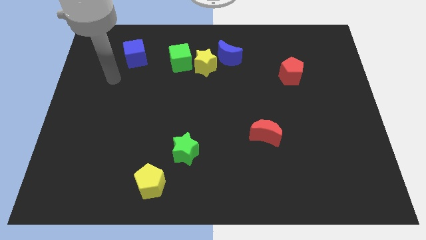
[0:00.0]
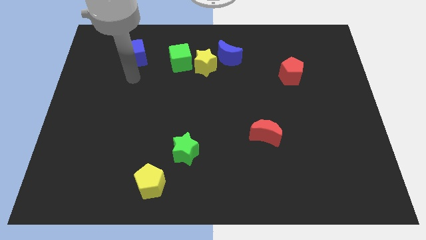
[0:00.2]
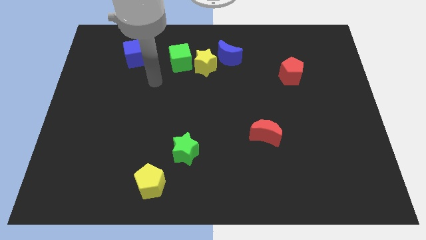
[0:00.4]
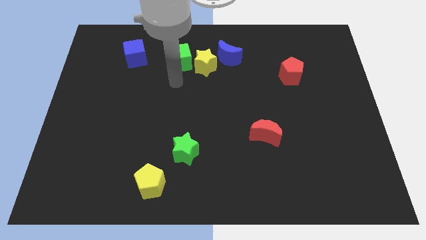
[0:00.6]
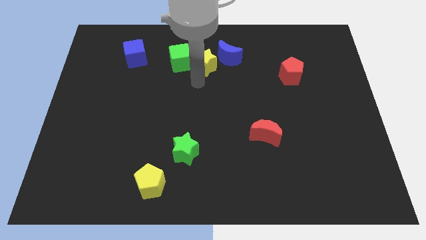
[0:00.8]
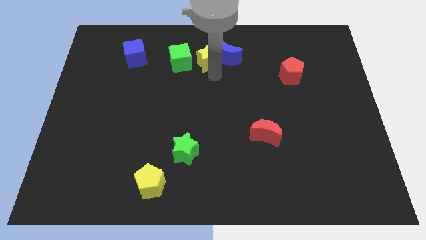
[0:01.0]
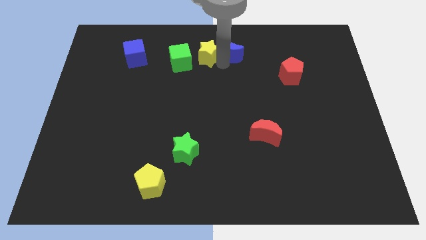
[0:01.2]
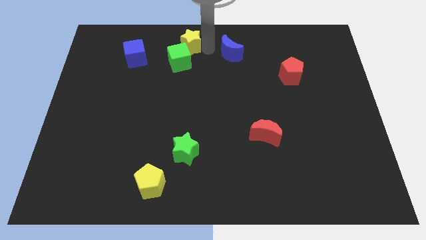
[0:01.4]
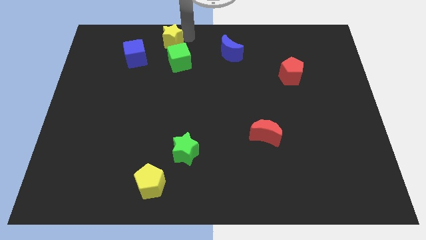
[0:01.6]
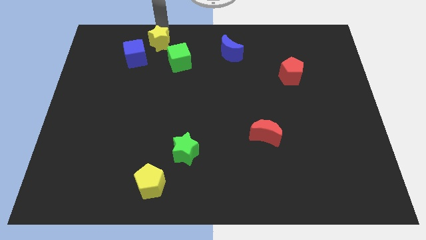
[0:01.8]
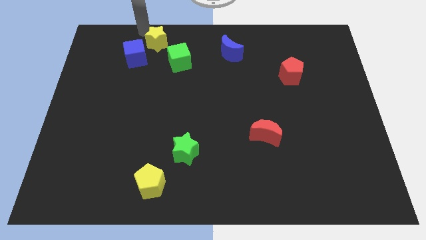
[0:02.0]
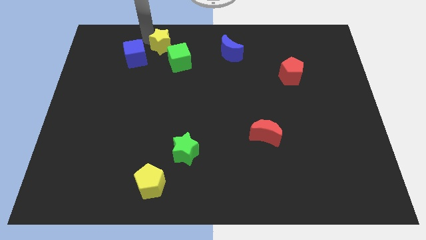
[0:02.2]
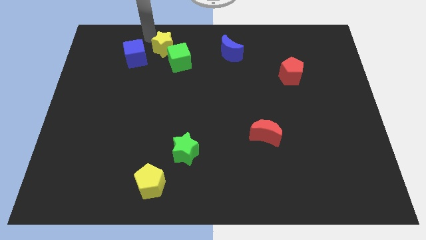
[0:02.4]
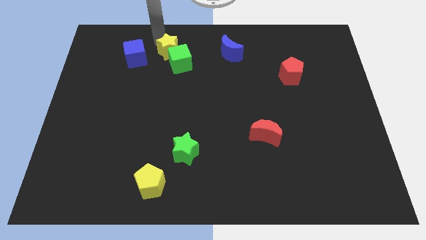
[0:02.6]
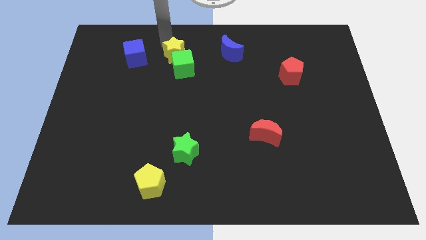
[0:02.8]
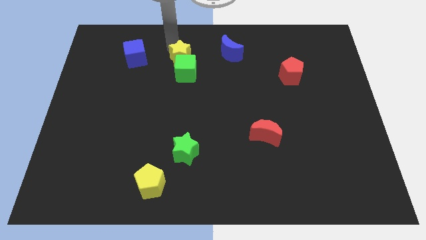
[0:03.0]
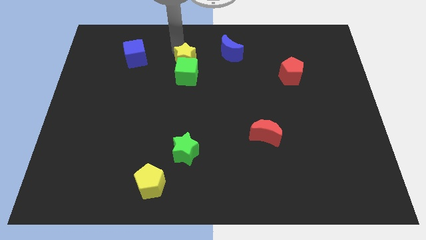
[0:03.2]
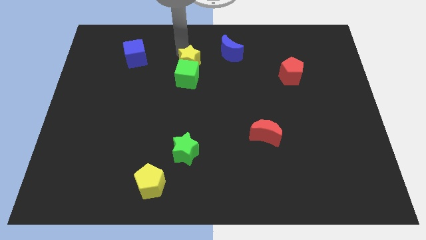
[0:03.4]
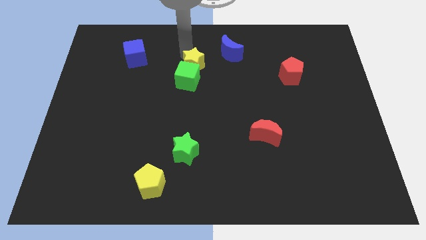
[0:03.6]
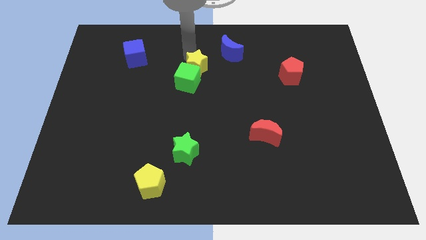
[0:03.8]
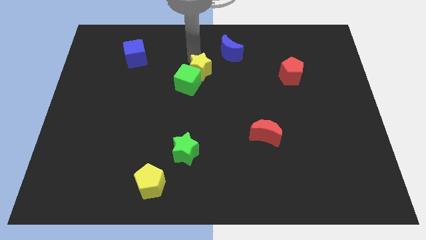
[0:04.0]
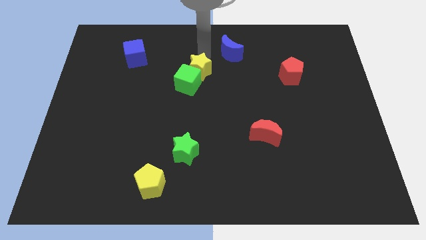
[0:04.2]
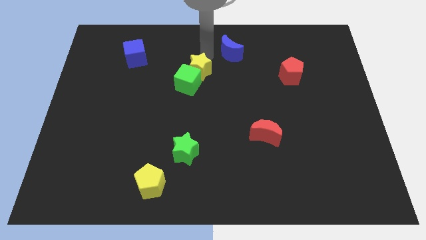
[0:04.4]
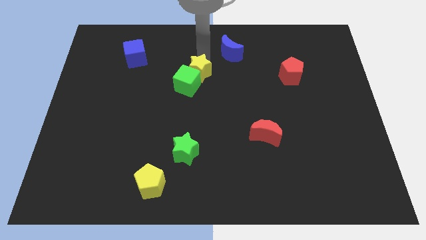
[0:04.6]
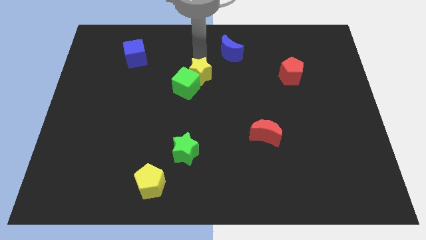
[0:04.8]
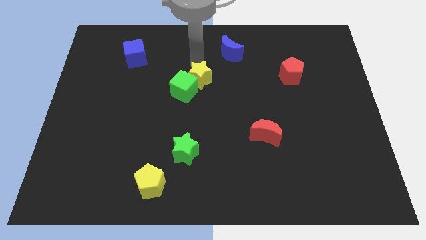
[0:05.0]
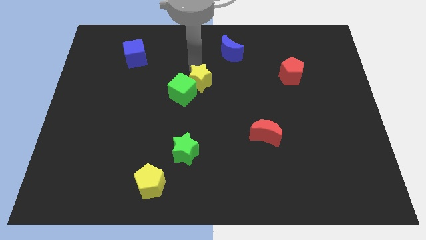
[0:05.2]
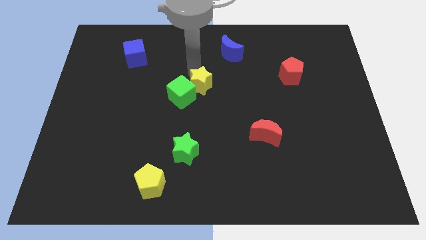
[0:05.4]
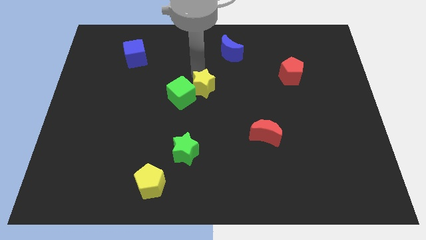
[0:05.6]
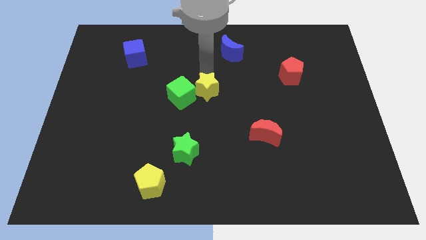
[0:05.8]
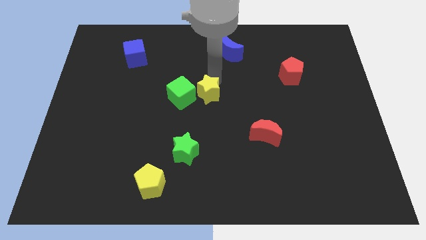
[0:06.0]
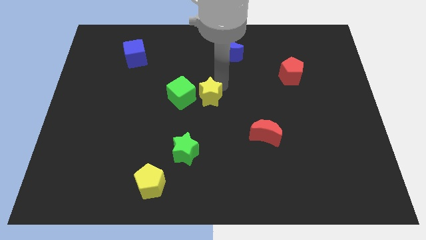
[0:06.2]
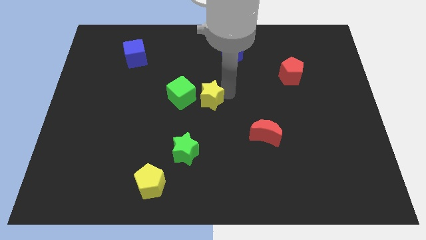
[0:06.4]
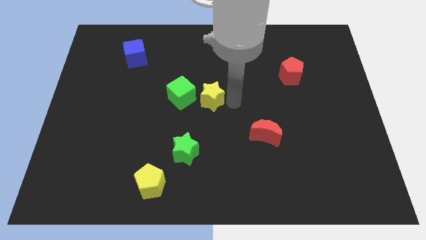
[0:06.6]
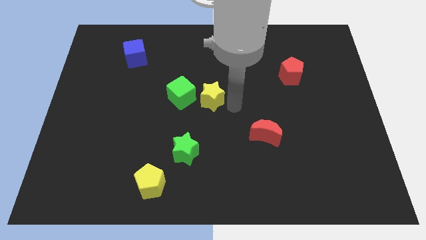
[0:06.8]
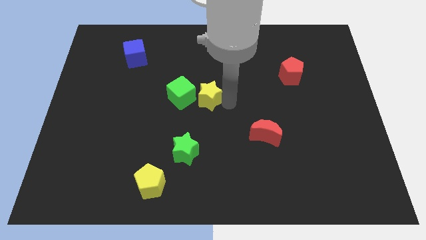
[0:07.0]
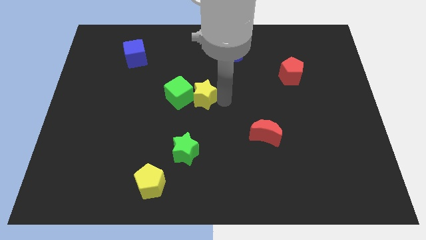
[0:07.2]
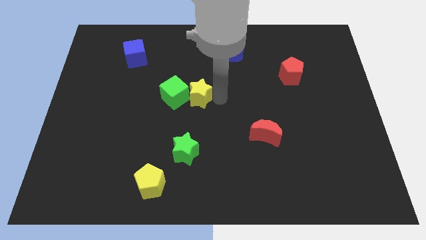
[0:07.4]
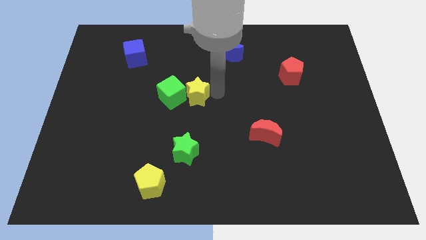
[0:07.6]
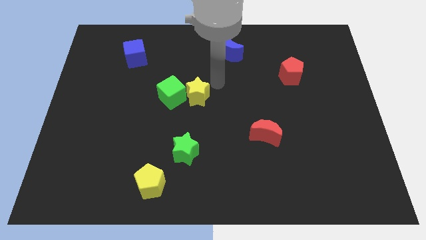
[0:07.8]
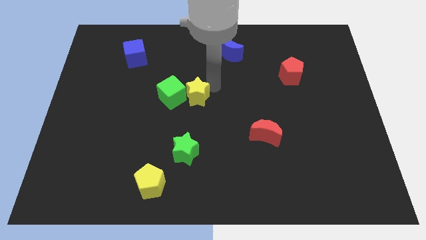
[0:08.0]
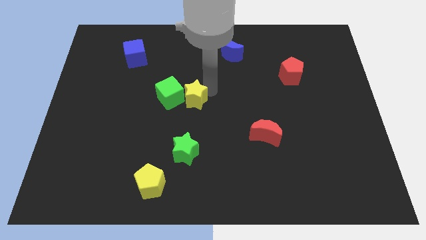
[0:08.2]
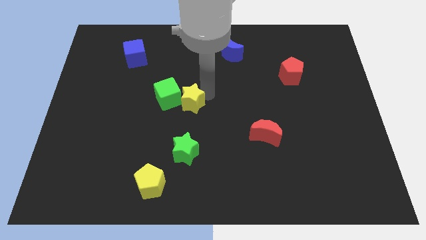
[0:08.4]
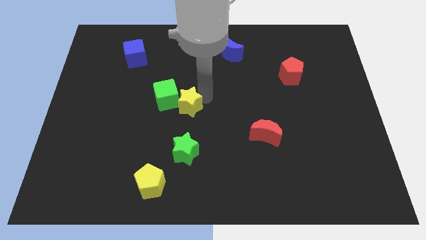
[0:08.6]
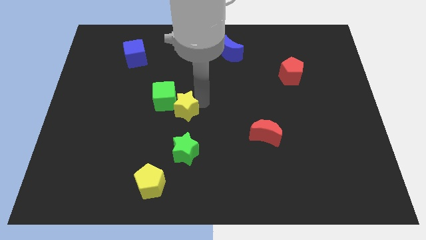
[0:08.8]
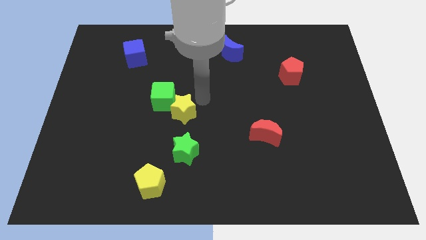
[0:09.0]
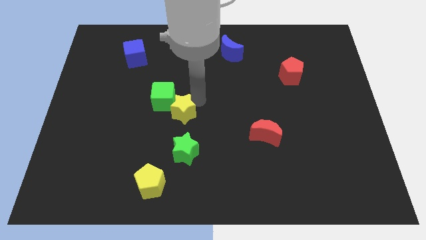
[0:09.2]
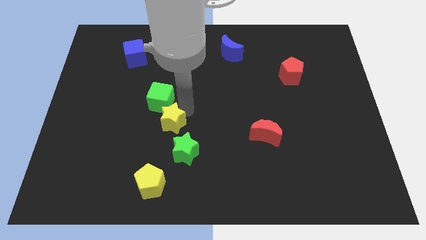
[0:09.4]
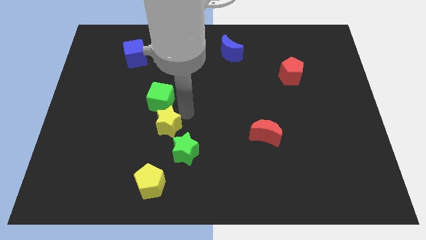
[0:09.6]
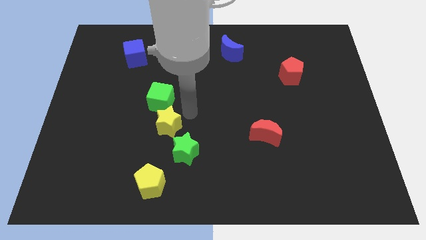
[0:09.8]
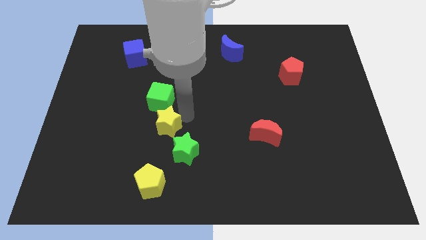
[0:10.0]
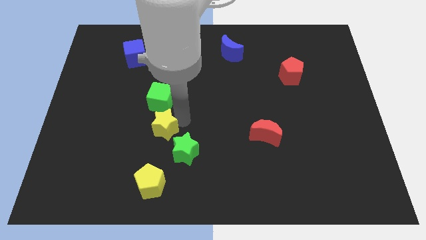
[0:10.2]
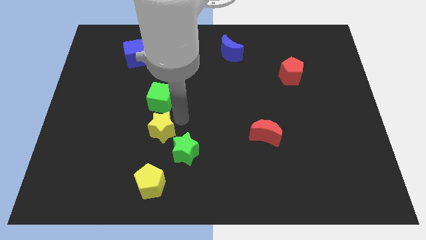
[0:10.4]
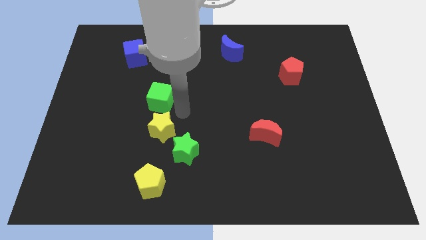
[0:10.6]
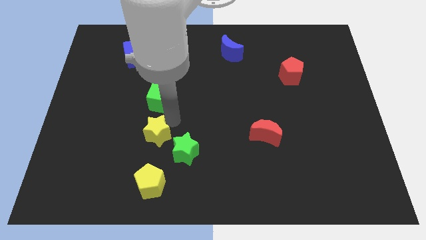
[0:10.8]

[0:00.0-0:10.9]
slide the yellow star left of the green star

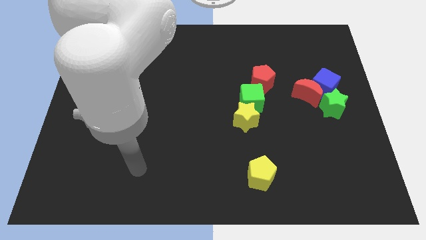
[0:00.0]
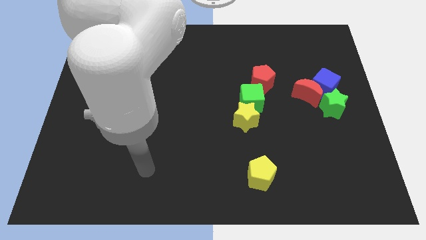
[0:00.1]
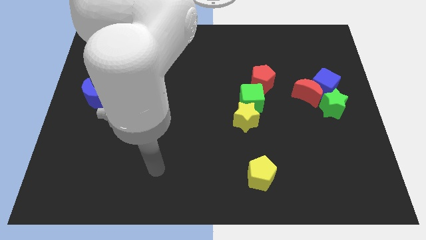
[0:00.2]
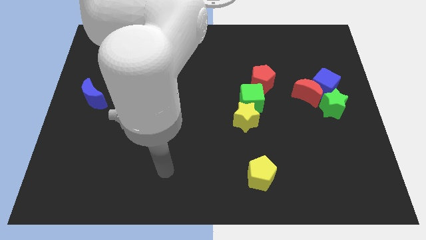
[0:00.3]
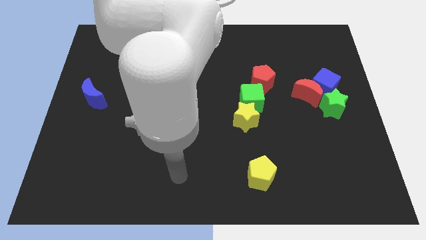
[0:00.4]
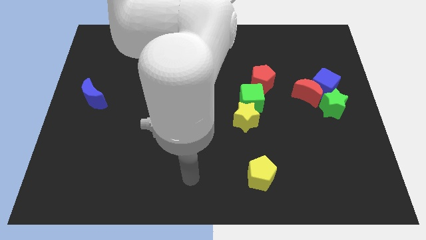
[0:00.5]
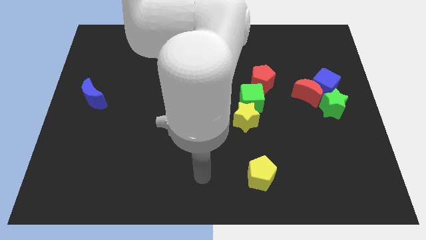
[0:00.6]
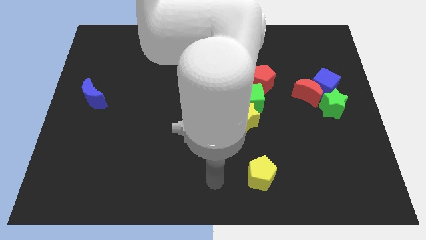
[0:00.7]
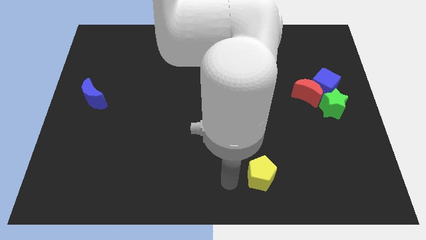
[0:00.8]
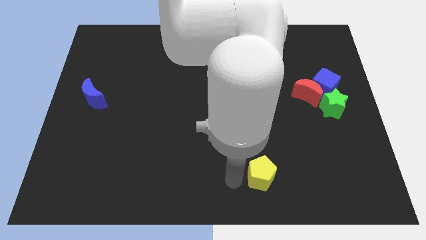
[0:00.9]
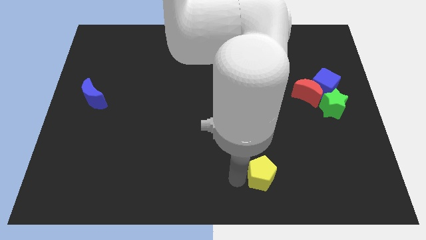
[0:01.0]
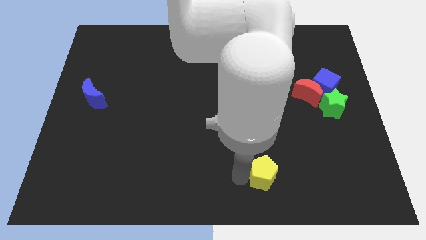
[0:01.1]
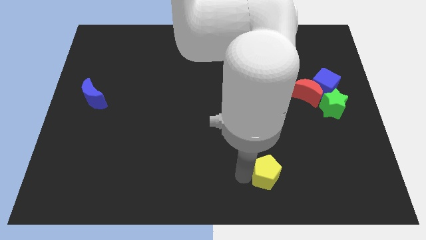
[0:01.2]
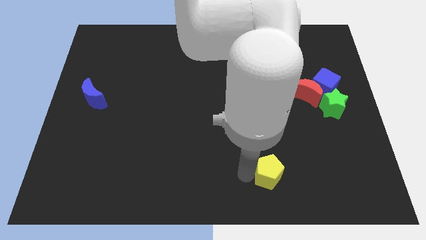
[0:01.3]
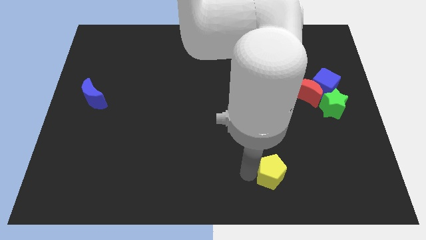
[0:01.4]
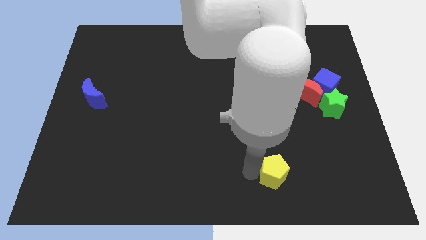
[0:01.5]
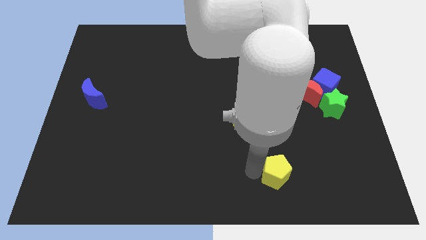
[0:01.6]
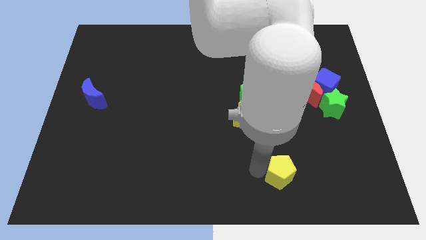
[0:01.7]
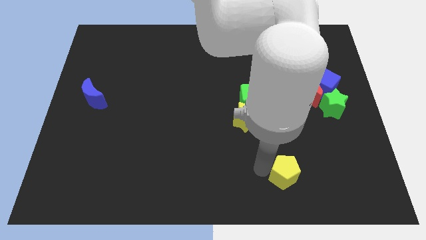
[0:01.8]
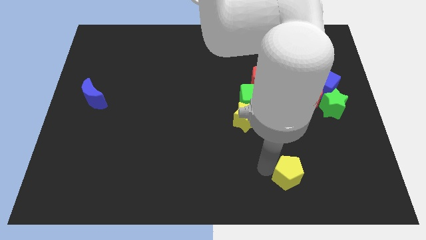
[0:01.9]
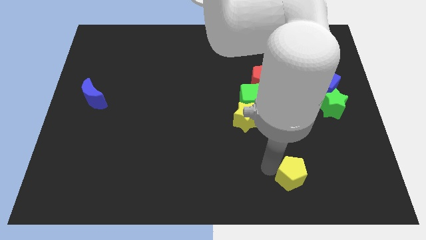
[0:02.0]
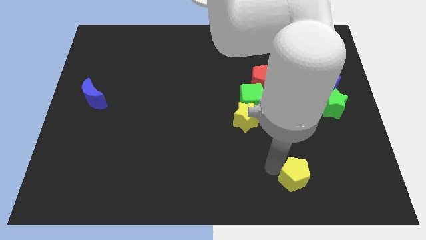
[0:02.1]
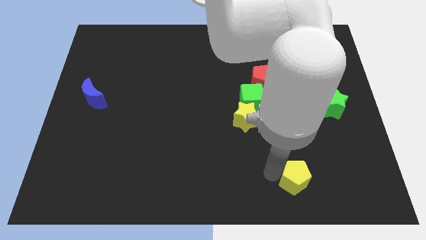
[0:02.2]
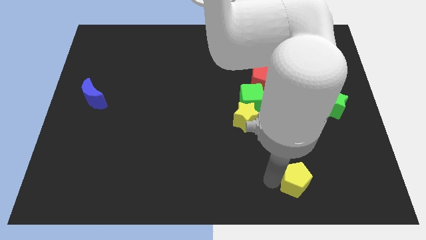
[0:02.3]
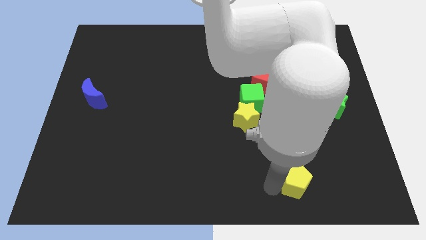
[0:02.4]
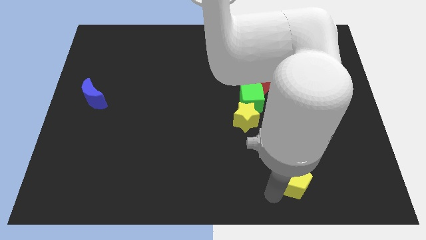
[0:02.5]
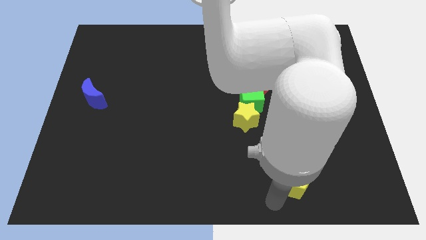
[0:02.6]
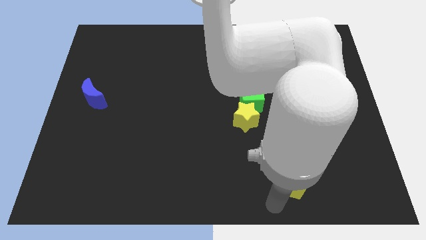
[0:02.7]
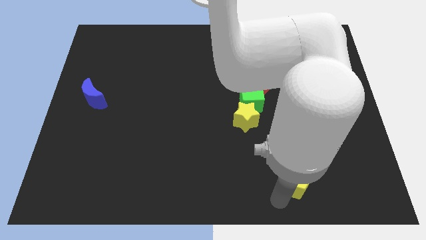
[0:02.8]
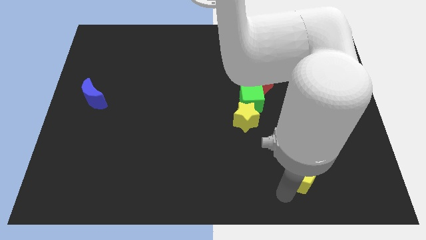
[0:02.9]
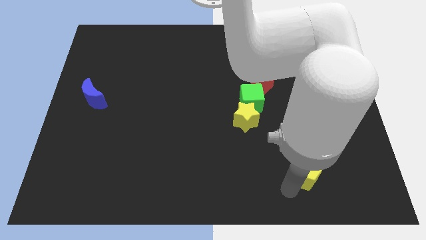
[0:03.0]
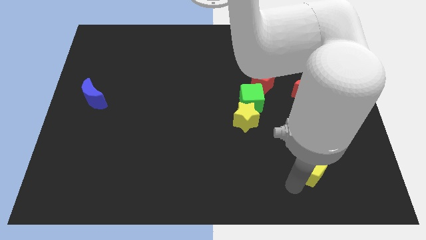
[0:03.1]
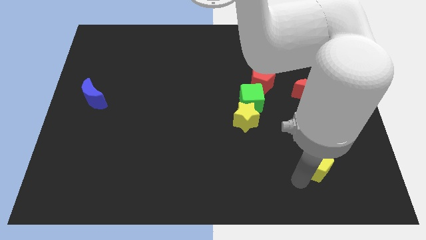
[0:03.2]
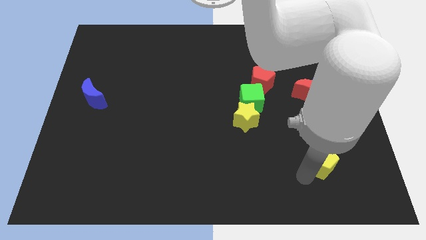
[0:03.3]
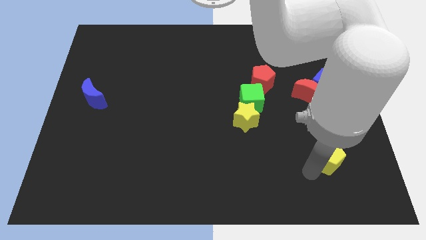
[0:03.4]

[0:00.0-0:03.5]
put the yellow pentagon to the bottom side of the green star
